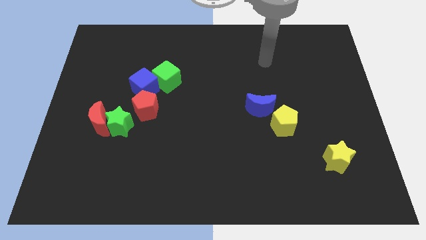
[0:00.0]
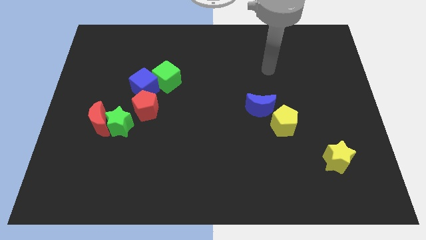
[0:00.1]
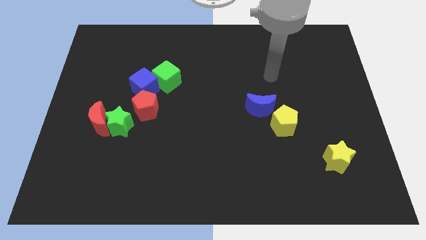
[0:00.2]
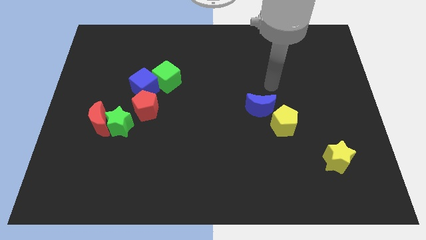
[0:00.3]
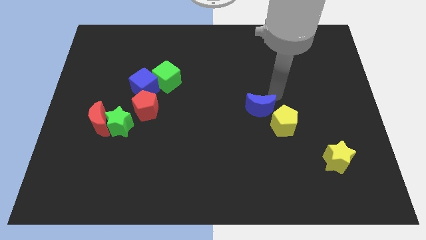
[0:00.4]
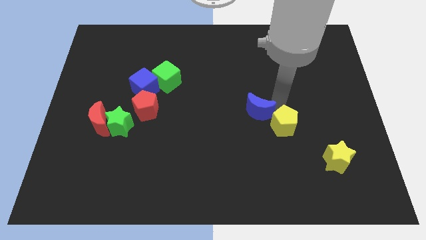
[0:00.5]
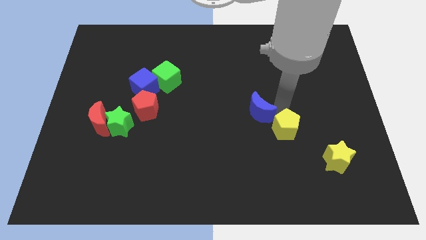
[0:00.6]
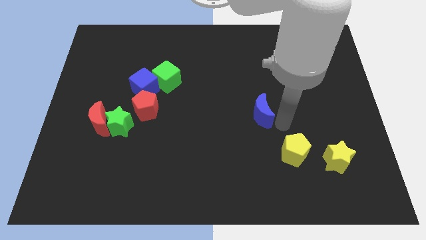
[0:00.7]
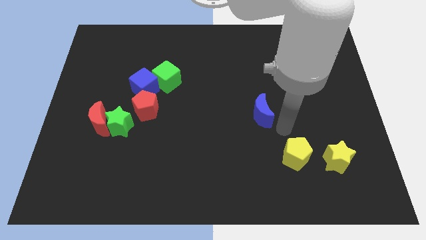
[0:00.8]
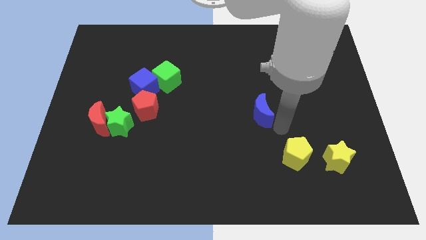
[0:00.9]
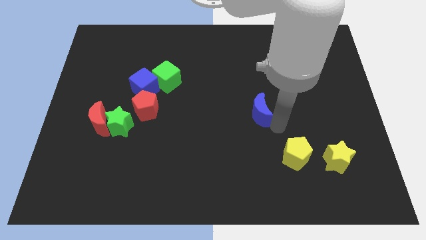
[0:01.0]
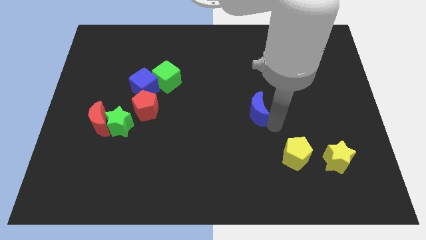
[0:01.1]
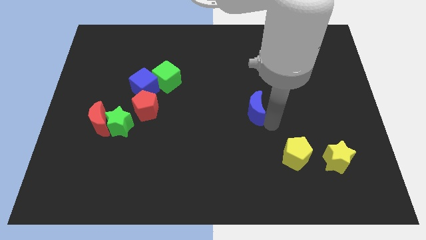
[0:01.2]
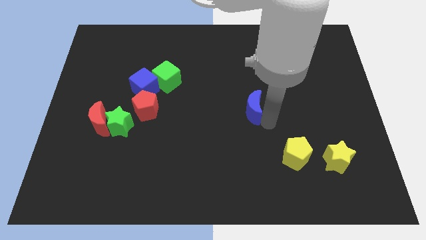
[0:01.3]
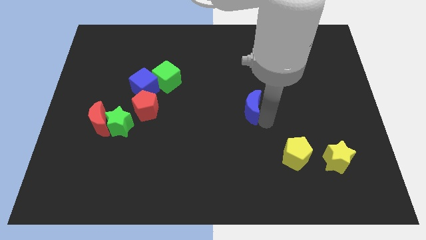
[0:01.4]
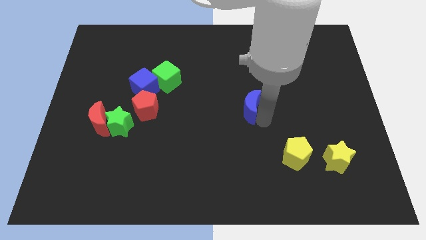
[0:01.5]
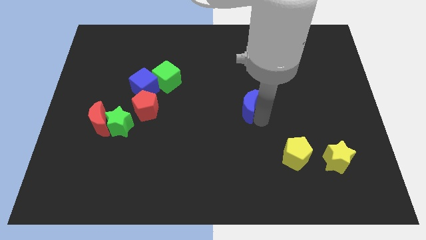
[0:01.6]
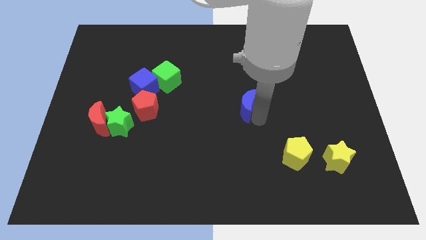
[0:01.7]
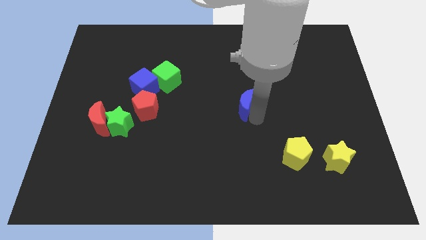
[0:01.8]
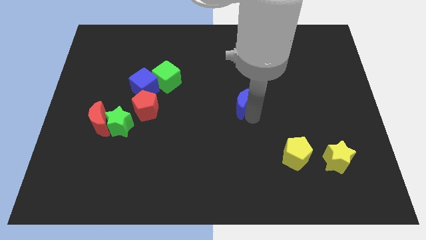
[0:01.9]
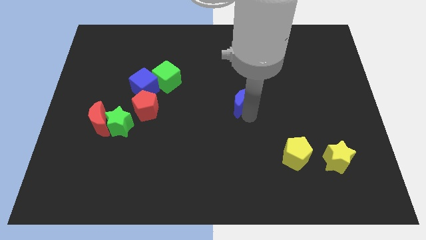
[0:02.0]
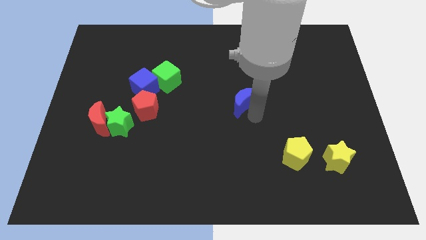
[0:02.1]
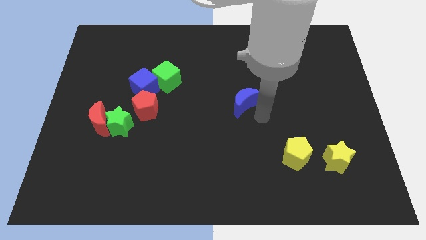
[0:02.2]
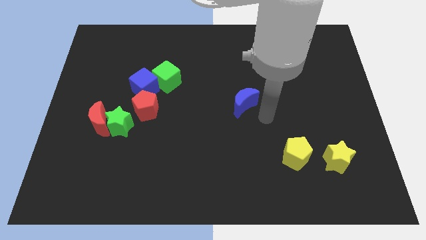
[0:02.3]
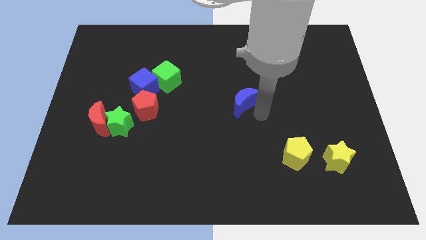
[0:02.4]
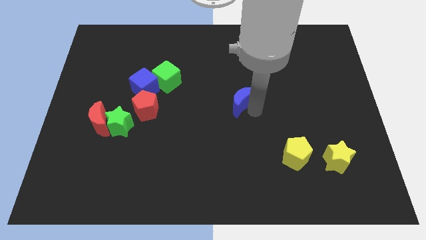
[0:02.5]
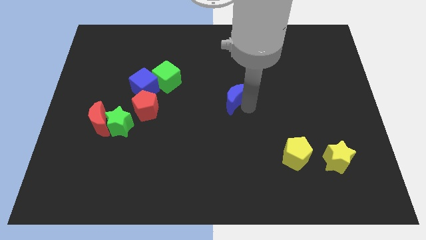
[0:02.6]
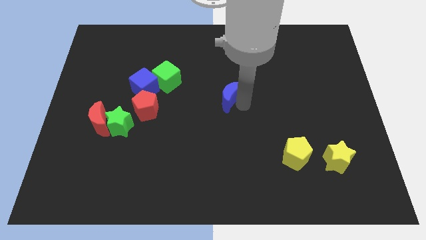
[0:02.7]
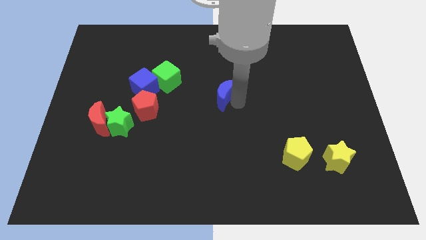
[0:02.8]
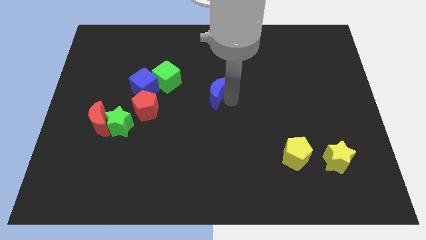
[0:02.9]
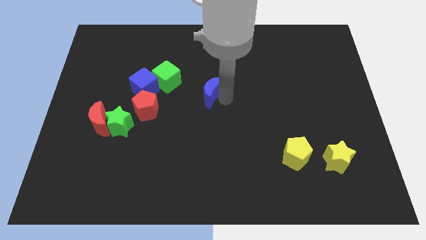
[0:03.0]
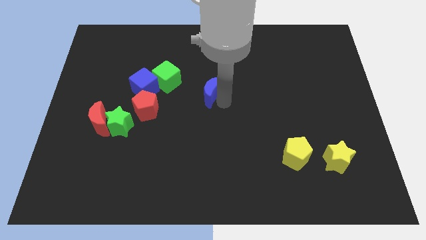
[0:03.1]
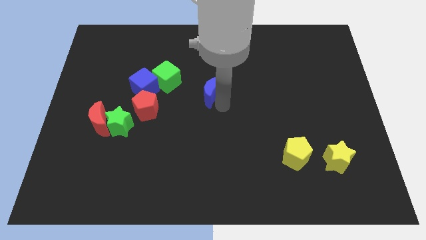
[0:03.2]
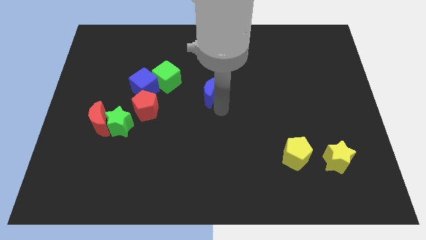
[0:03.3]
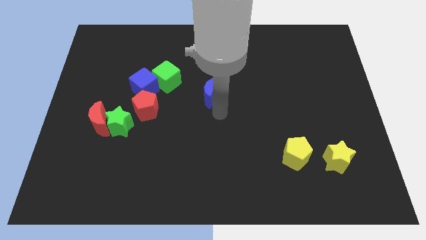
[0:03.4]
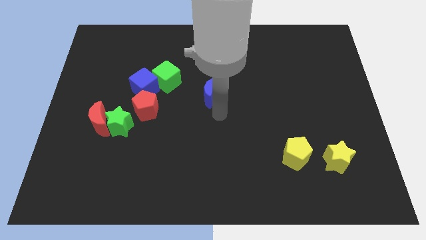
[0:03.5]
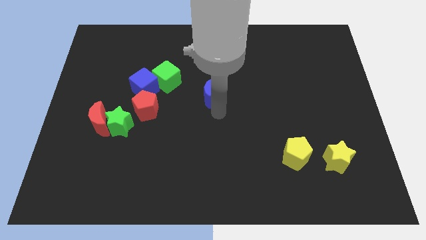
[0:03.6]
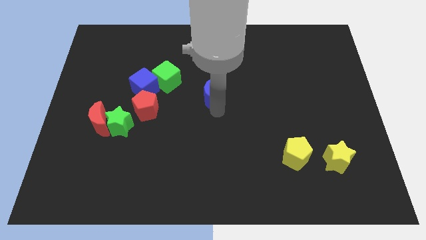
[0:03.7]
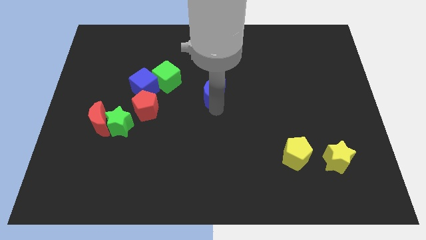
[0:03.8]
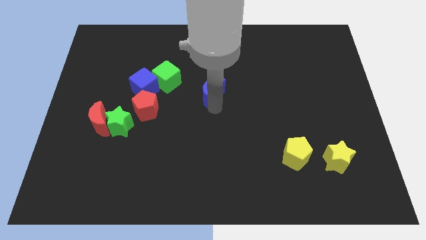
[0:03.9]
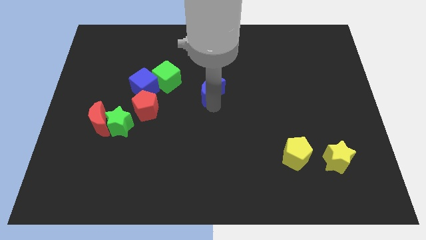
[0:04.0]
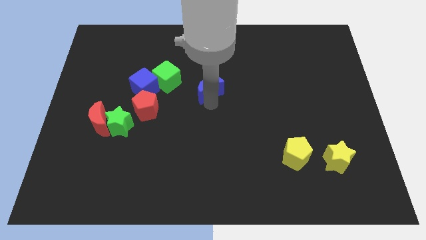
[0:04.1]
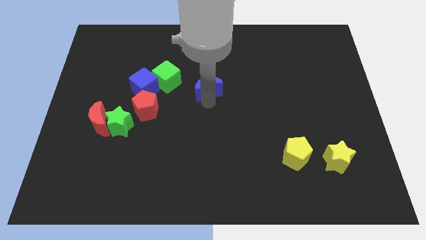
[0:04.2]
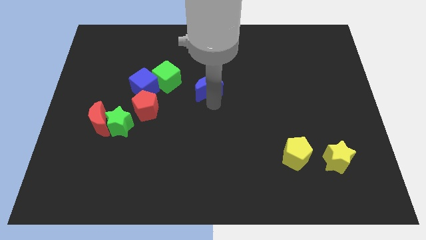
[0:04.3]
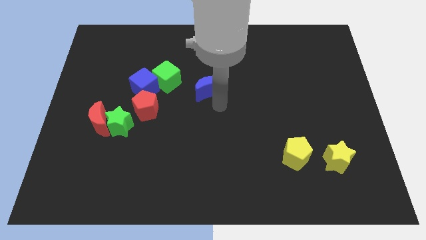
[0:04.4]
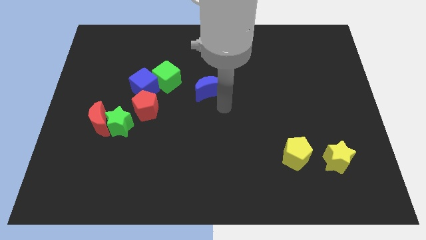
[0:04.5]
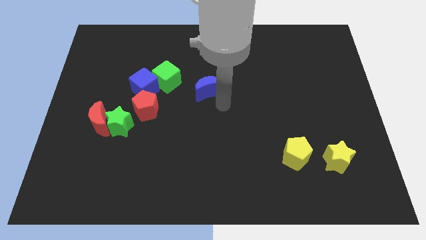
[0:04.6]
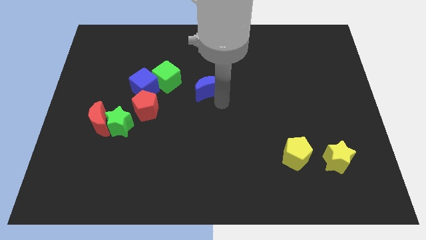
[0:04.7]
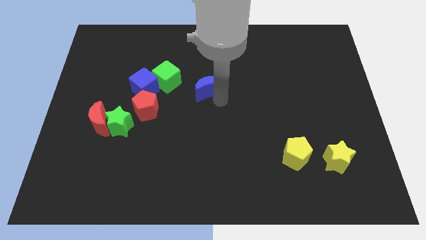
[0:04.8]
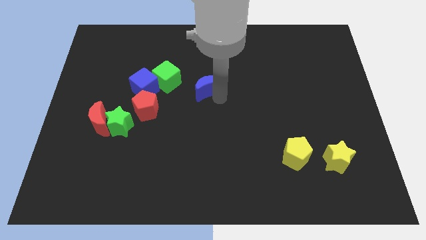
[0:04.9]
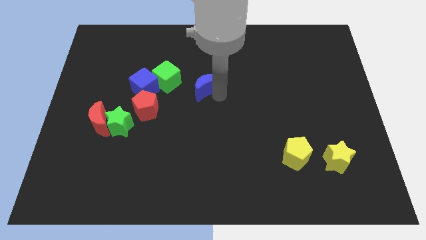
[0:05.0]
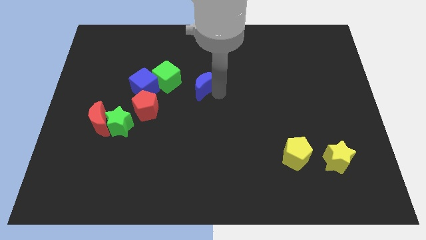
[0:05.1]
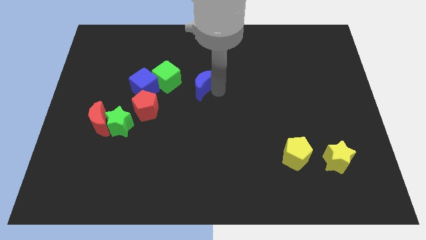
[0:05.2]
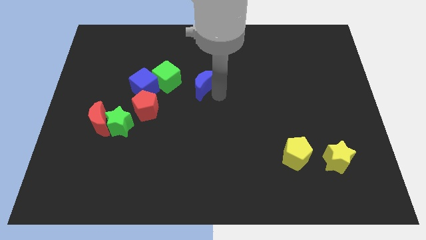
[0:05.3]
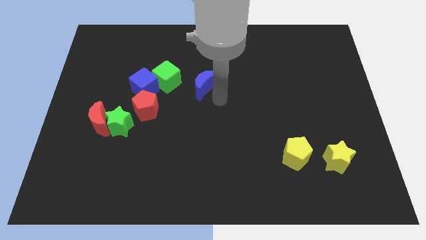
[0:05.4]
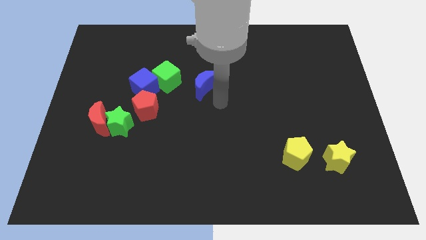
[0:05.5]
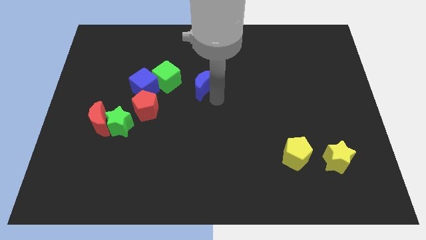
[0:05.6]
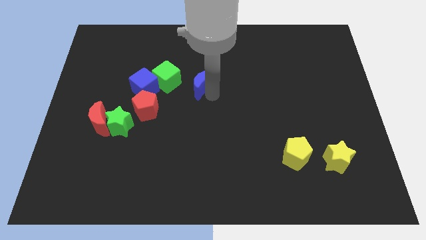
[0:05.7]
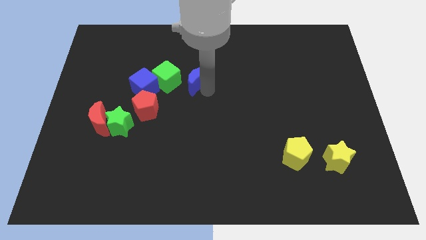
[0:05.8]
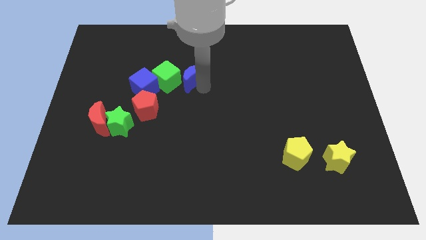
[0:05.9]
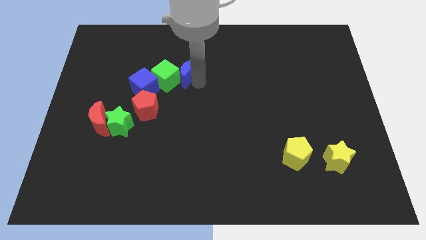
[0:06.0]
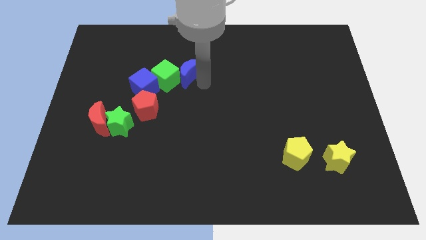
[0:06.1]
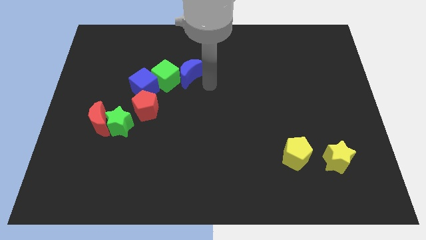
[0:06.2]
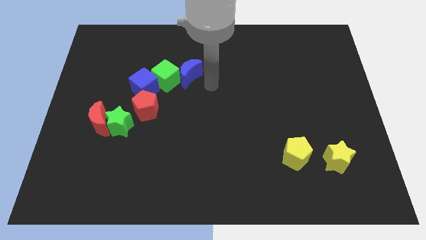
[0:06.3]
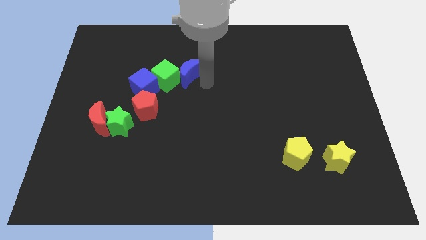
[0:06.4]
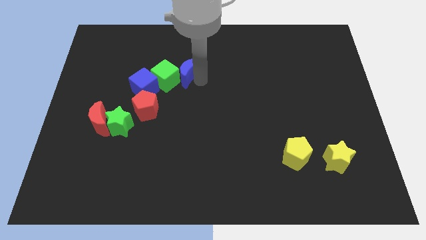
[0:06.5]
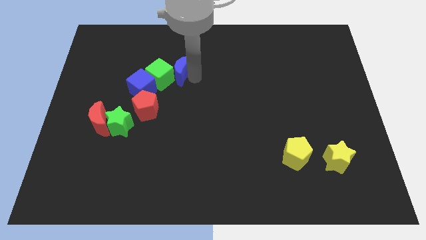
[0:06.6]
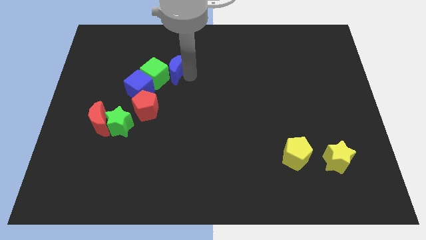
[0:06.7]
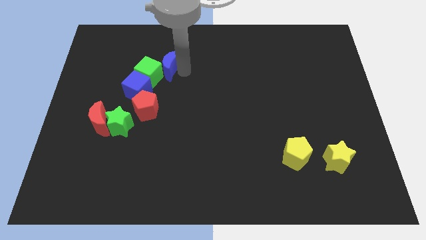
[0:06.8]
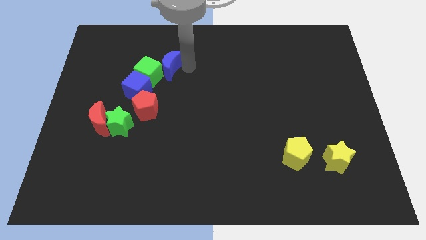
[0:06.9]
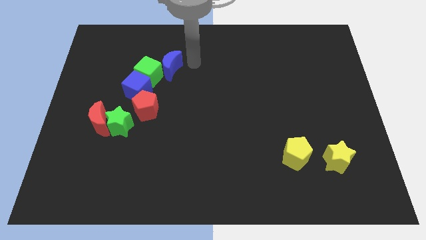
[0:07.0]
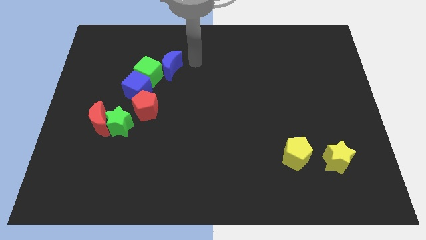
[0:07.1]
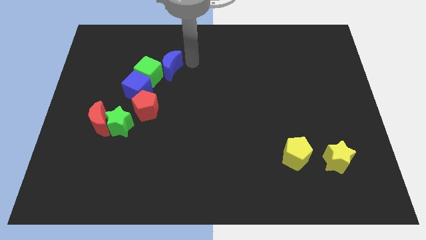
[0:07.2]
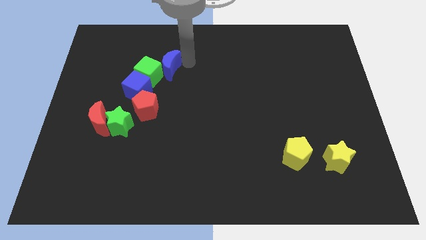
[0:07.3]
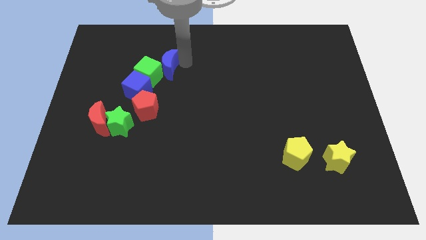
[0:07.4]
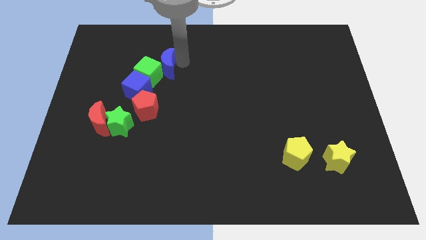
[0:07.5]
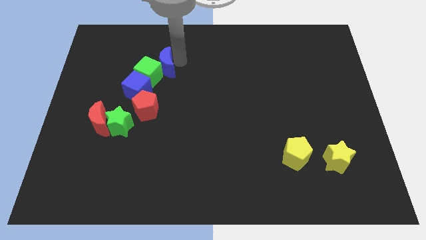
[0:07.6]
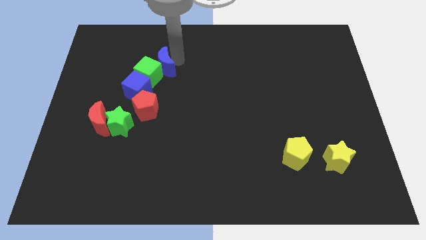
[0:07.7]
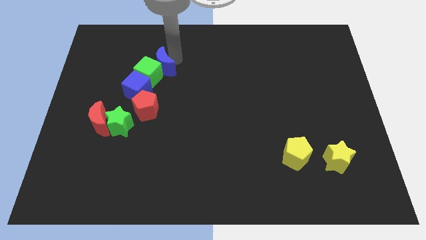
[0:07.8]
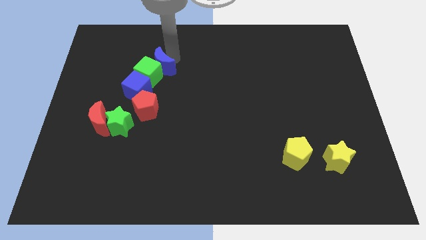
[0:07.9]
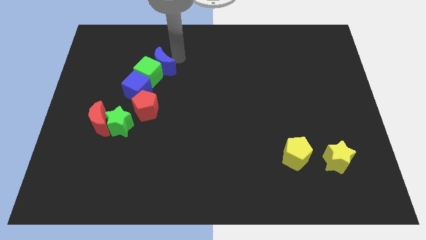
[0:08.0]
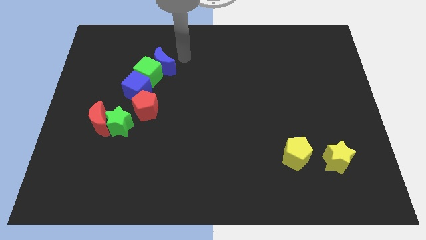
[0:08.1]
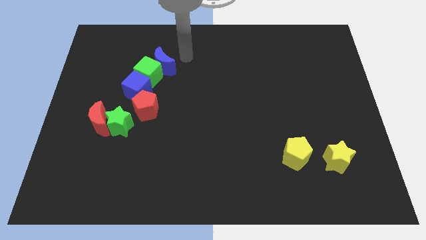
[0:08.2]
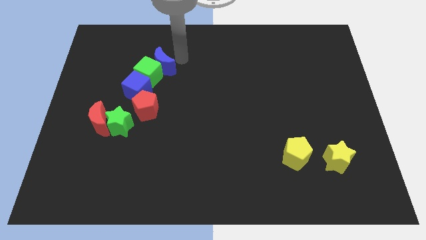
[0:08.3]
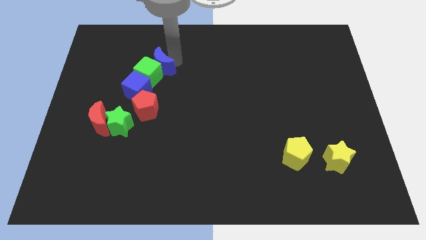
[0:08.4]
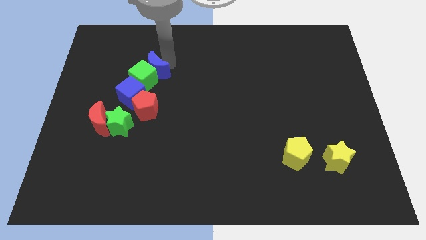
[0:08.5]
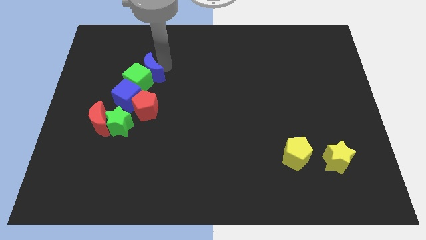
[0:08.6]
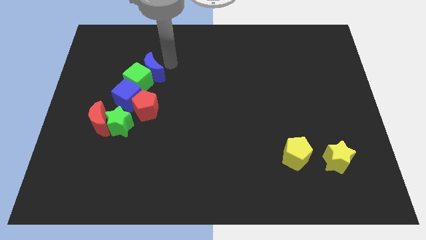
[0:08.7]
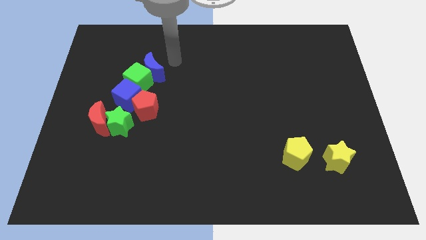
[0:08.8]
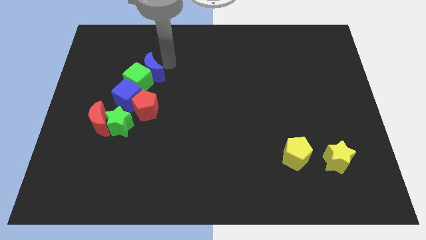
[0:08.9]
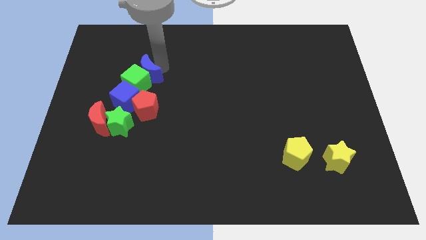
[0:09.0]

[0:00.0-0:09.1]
slide the blue moon to the left
